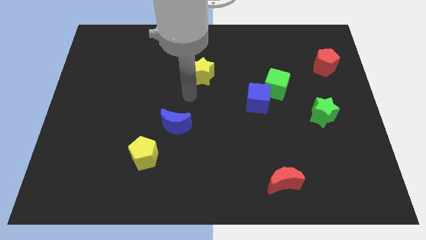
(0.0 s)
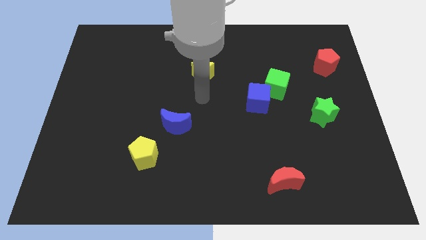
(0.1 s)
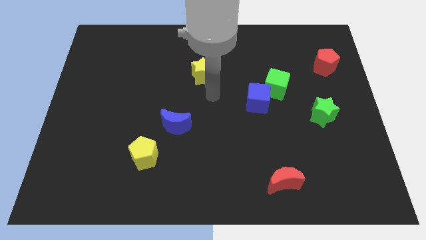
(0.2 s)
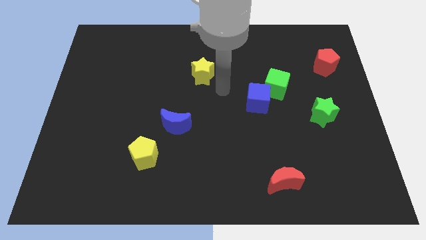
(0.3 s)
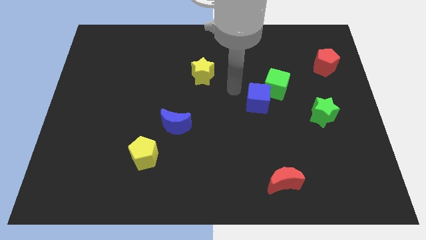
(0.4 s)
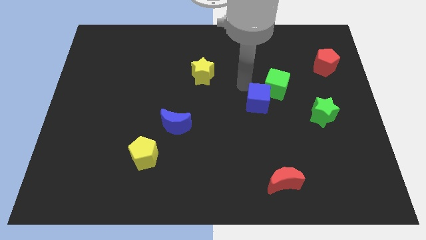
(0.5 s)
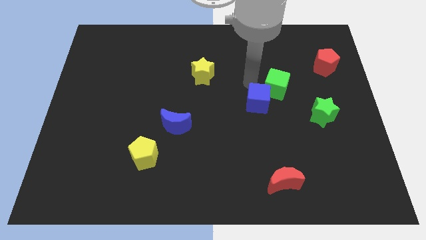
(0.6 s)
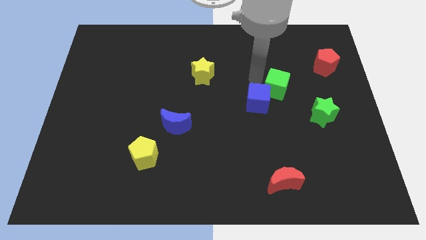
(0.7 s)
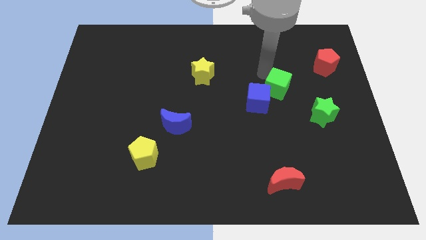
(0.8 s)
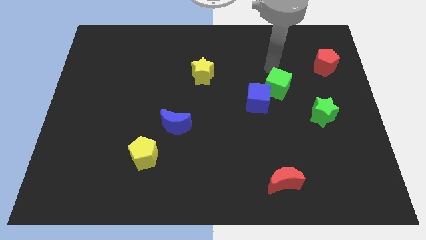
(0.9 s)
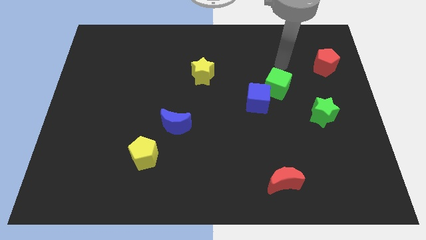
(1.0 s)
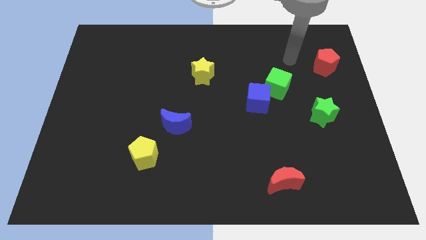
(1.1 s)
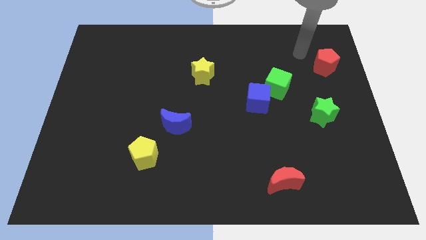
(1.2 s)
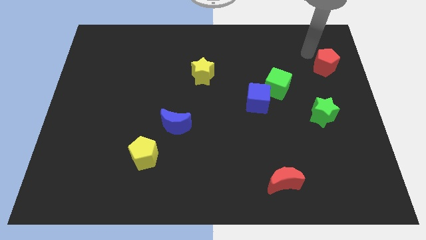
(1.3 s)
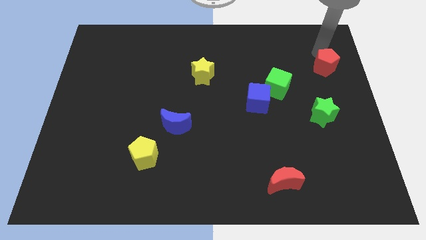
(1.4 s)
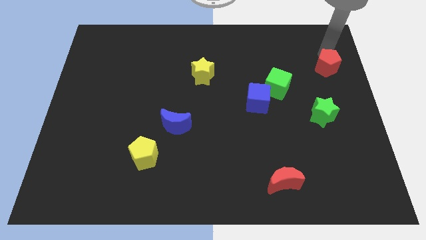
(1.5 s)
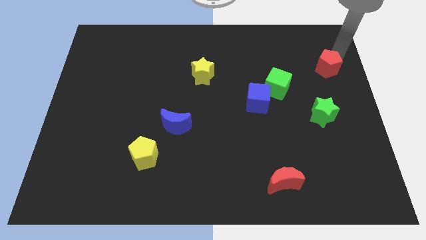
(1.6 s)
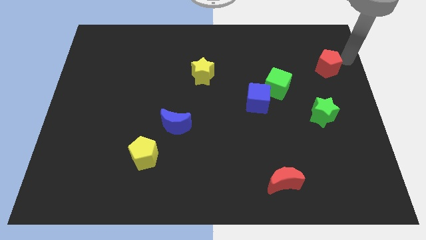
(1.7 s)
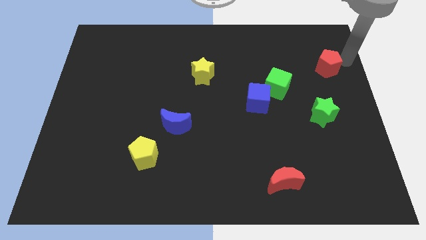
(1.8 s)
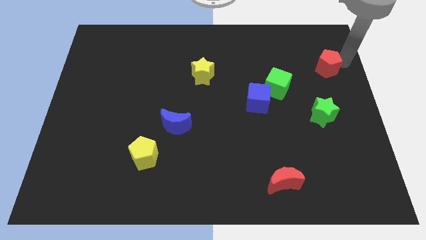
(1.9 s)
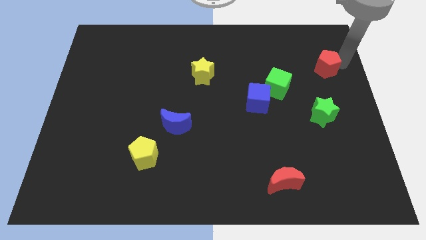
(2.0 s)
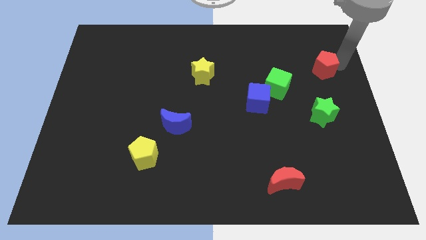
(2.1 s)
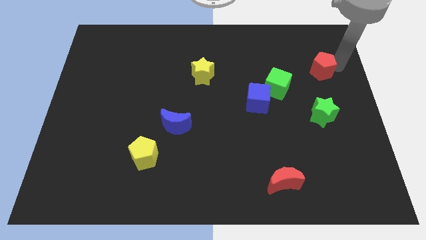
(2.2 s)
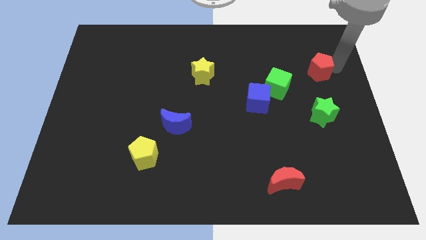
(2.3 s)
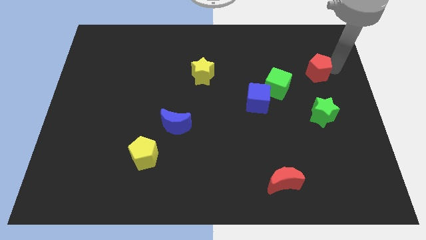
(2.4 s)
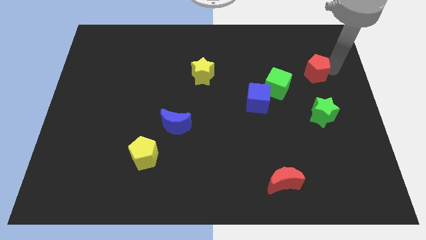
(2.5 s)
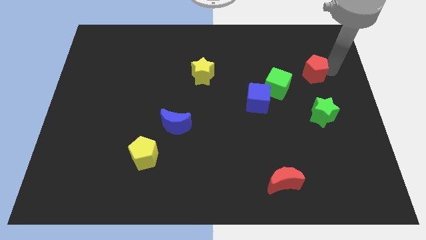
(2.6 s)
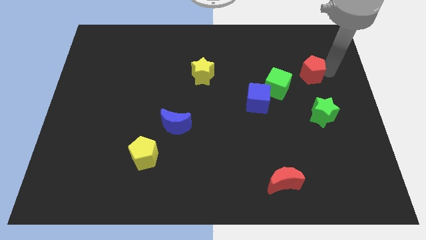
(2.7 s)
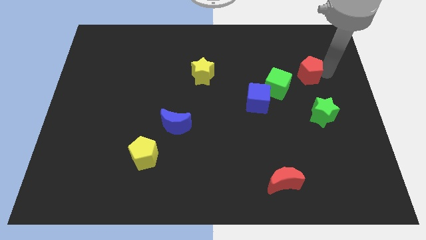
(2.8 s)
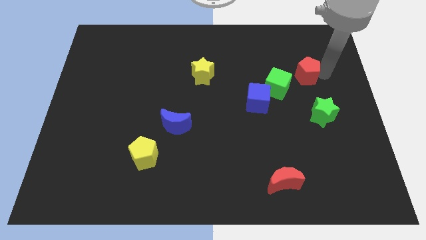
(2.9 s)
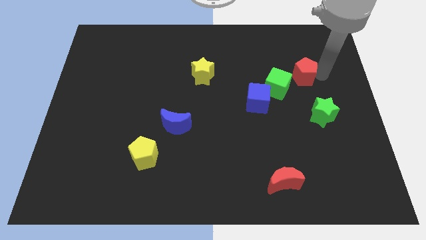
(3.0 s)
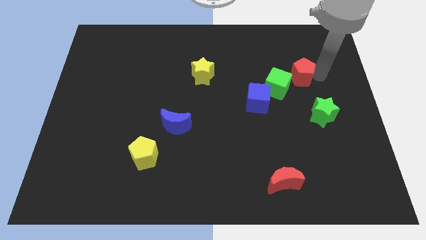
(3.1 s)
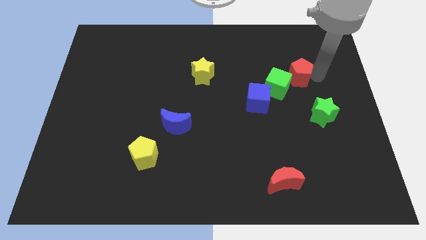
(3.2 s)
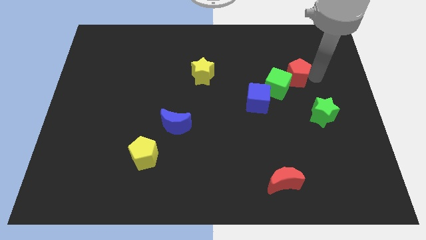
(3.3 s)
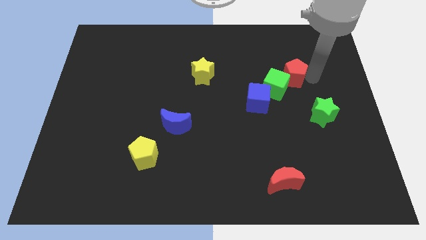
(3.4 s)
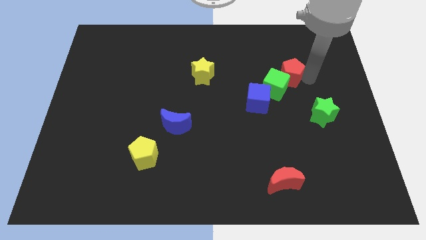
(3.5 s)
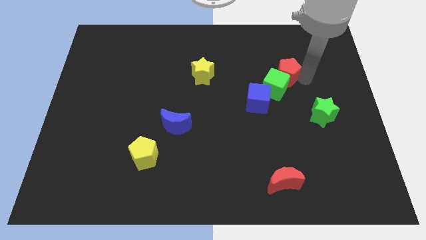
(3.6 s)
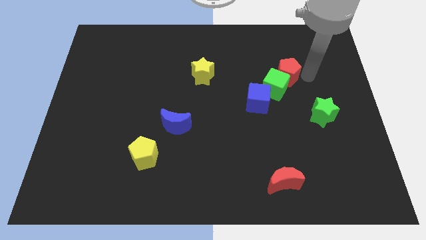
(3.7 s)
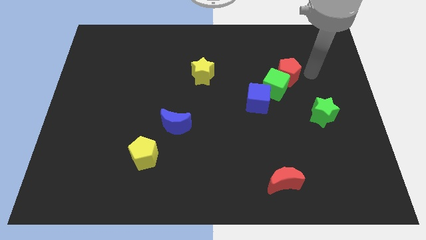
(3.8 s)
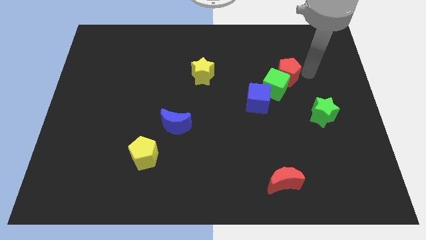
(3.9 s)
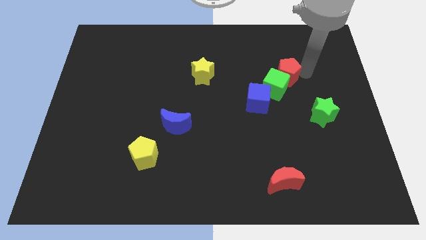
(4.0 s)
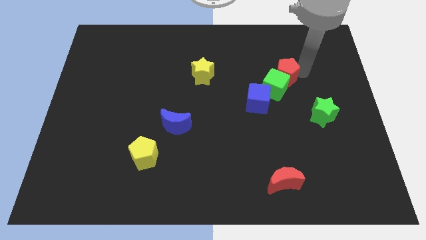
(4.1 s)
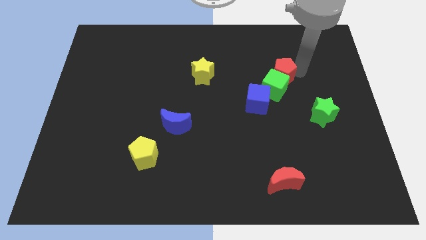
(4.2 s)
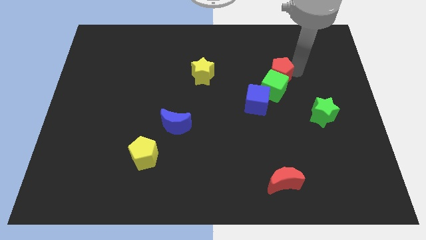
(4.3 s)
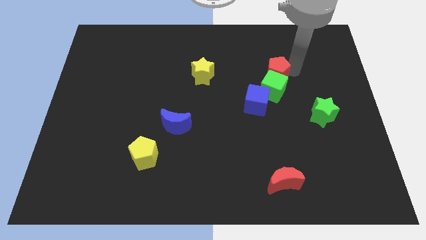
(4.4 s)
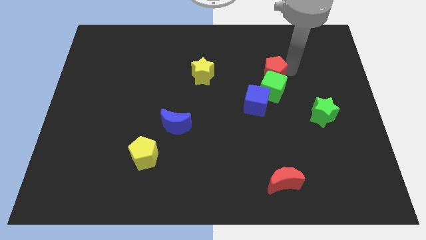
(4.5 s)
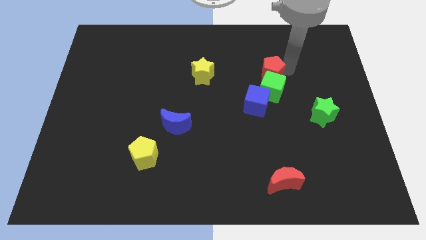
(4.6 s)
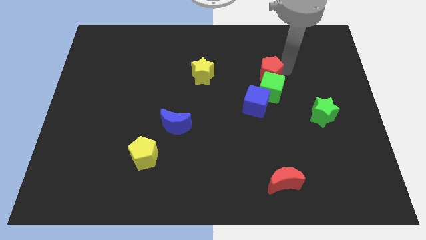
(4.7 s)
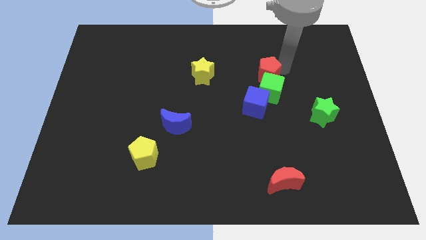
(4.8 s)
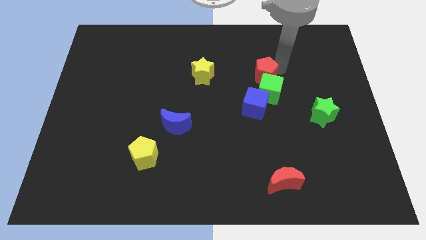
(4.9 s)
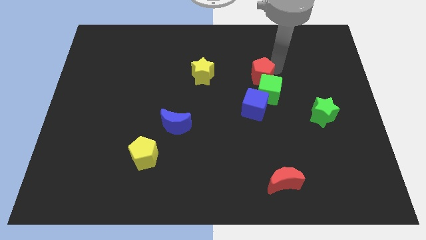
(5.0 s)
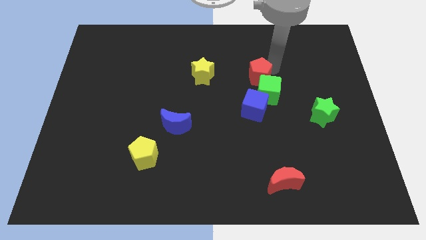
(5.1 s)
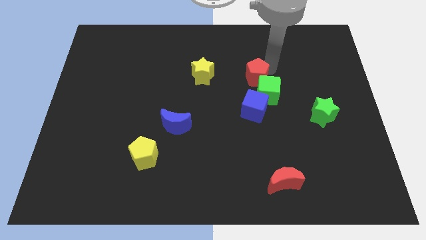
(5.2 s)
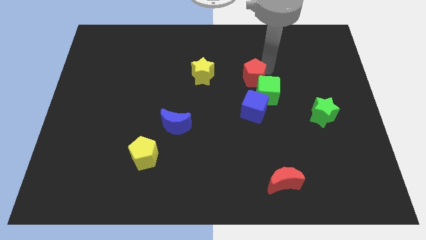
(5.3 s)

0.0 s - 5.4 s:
slide the red pentagon to the center of the board
